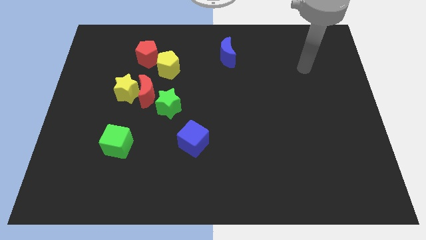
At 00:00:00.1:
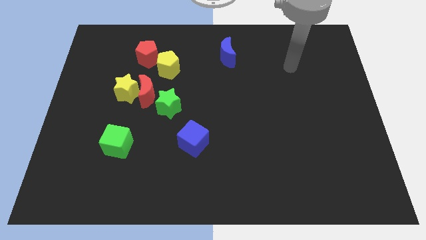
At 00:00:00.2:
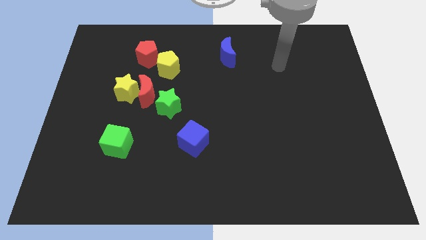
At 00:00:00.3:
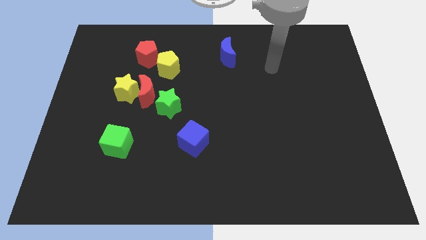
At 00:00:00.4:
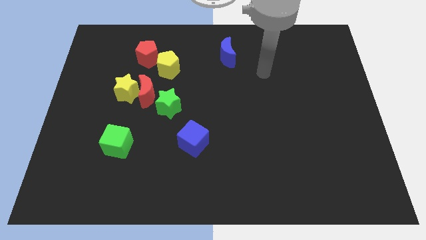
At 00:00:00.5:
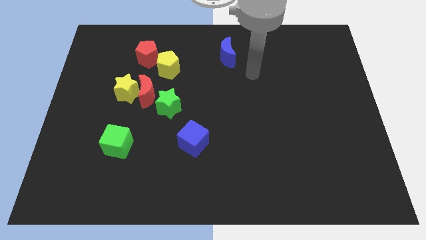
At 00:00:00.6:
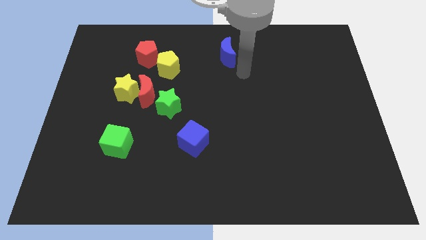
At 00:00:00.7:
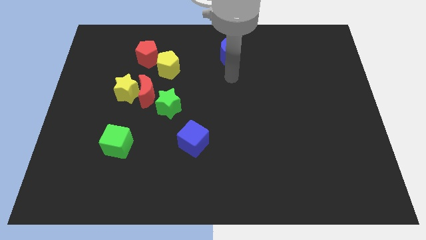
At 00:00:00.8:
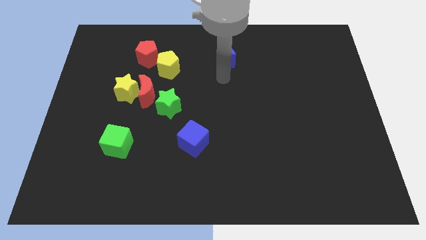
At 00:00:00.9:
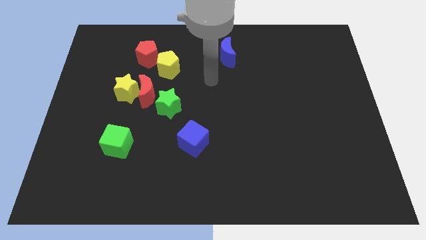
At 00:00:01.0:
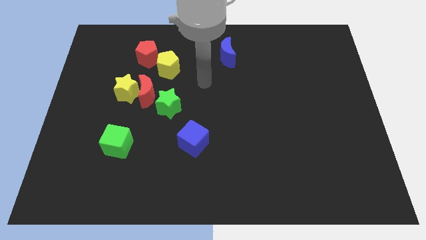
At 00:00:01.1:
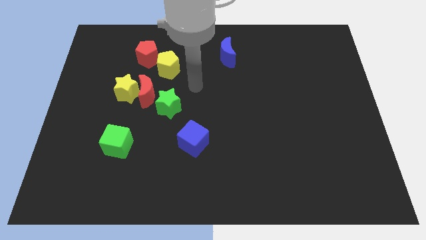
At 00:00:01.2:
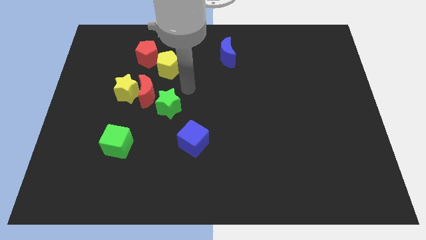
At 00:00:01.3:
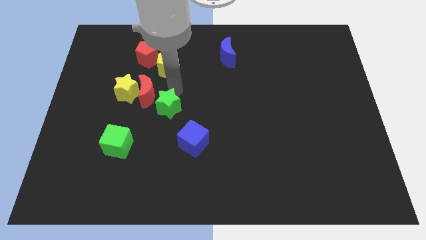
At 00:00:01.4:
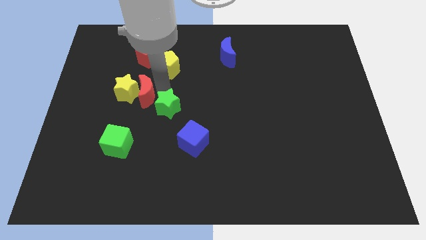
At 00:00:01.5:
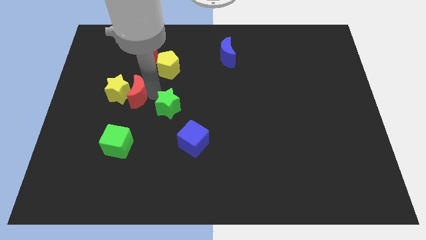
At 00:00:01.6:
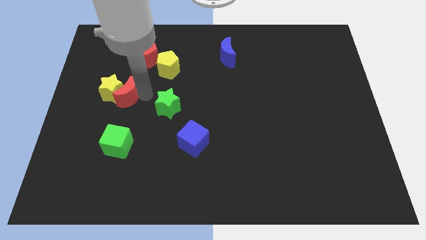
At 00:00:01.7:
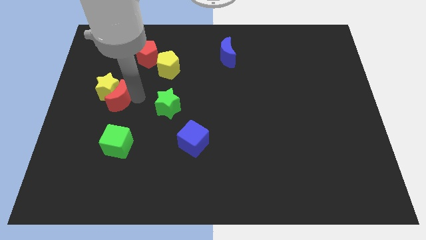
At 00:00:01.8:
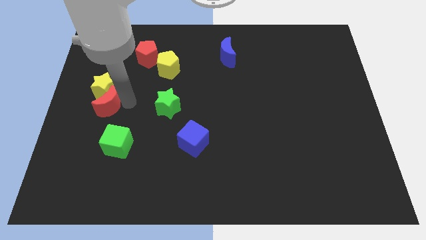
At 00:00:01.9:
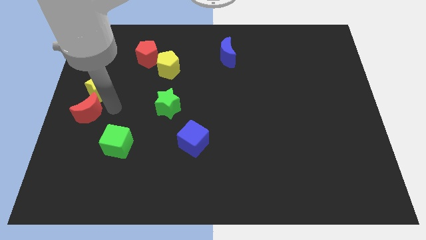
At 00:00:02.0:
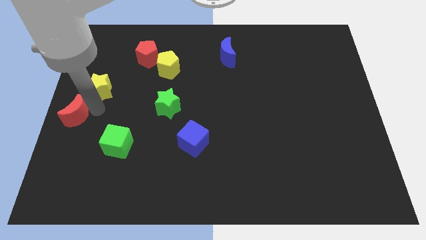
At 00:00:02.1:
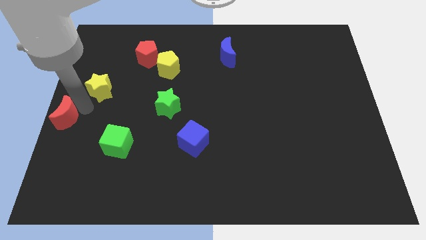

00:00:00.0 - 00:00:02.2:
separate the yellow star from the red moon

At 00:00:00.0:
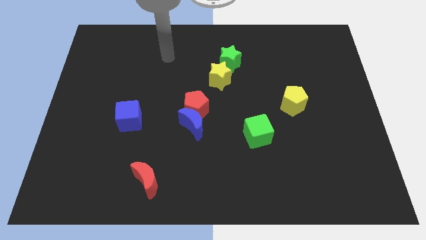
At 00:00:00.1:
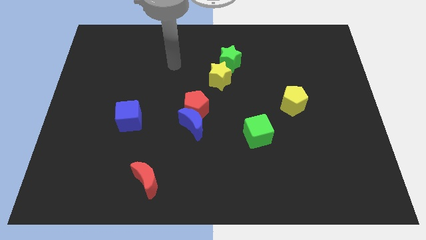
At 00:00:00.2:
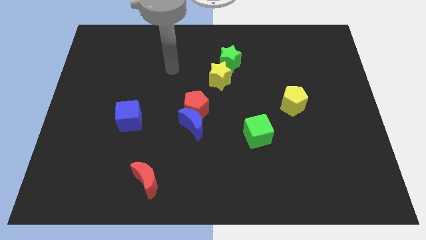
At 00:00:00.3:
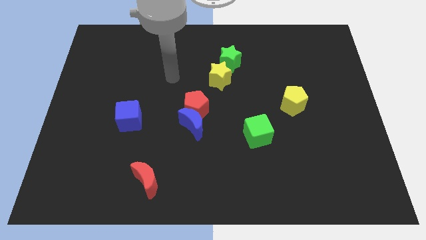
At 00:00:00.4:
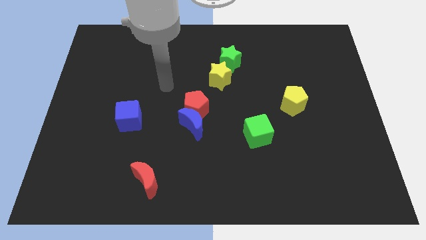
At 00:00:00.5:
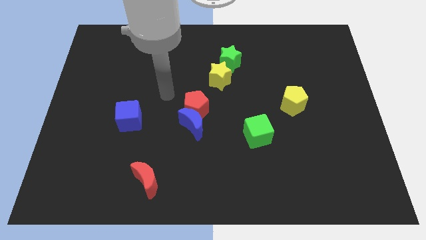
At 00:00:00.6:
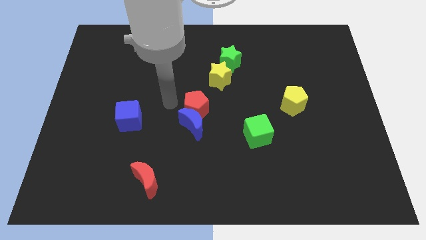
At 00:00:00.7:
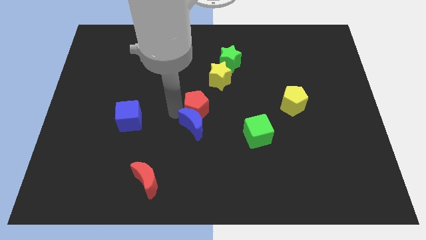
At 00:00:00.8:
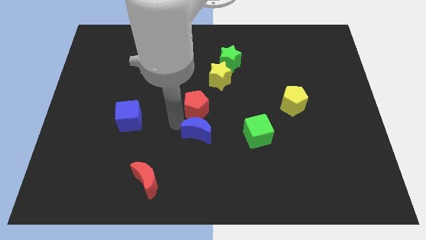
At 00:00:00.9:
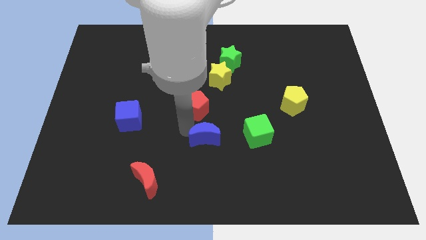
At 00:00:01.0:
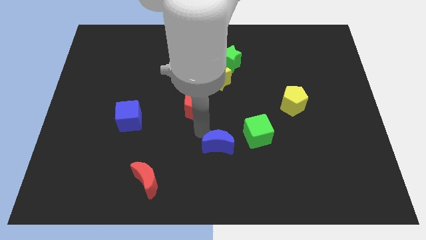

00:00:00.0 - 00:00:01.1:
move the red pentagon away from the blue moon

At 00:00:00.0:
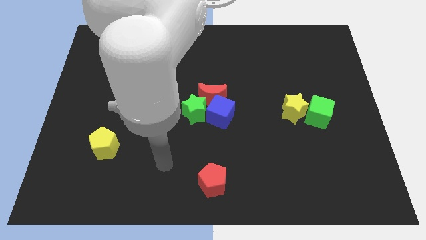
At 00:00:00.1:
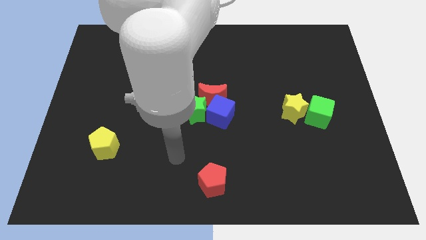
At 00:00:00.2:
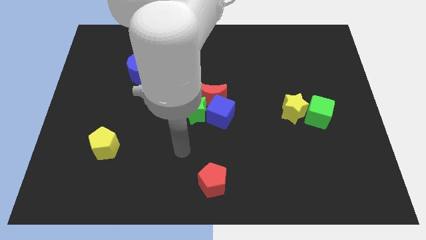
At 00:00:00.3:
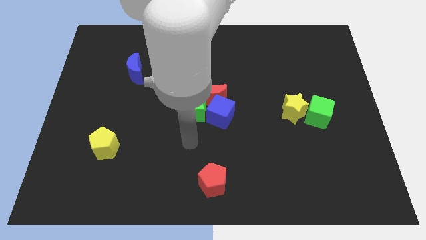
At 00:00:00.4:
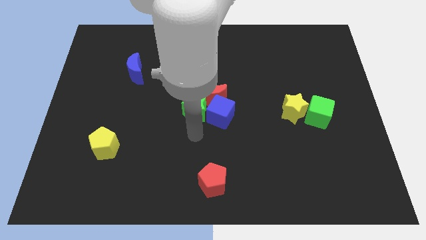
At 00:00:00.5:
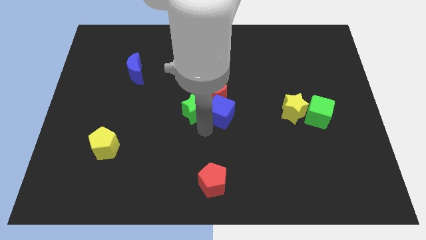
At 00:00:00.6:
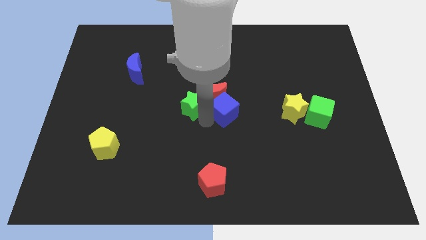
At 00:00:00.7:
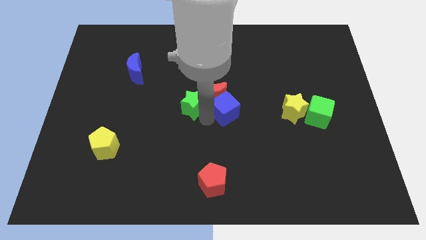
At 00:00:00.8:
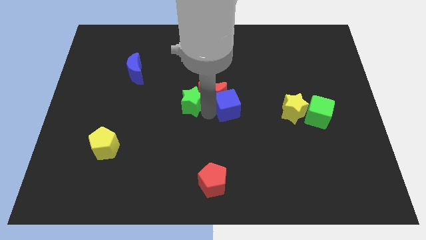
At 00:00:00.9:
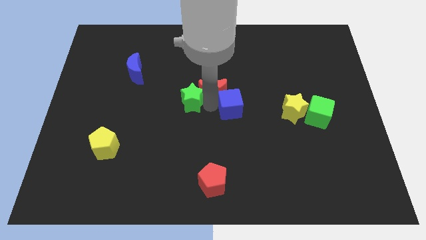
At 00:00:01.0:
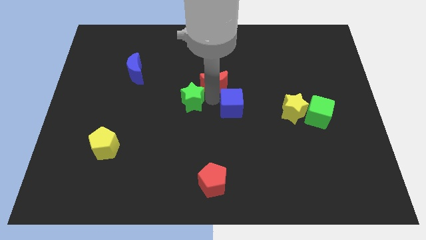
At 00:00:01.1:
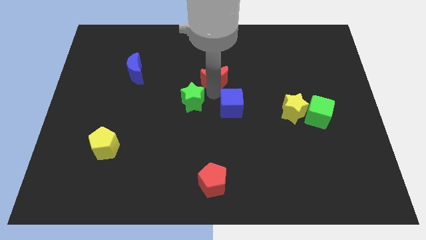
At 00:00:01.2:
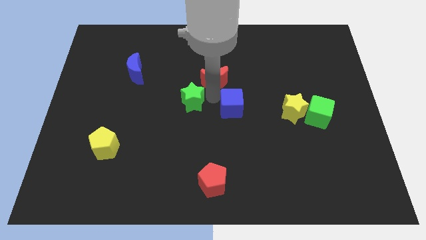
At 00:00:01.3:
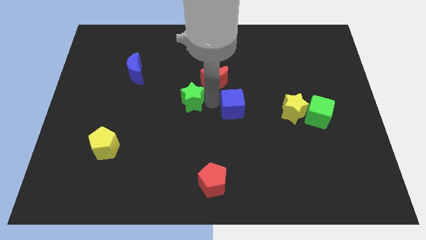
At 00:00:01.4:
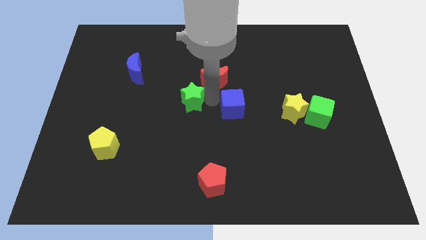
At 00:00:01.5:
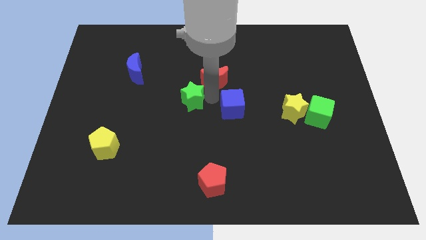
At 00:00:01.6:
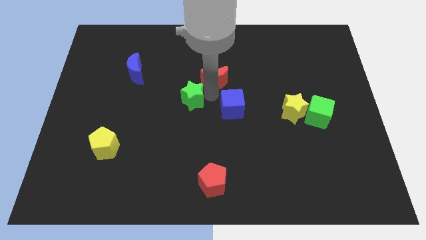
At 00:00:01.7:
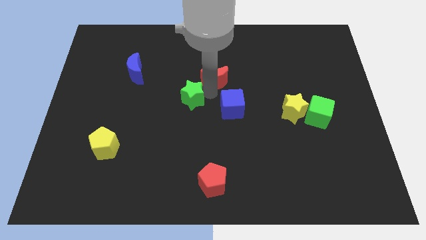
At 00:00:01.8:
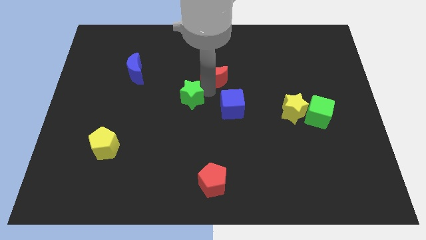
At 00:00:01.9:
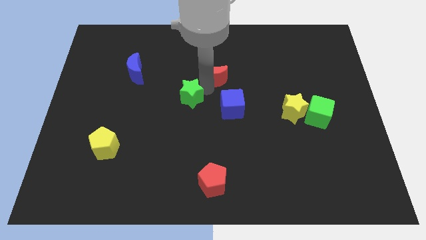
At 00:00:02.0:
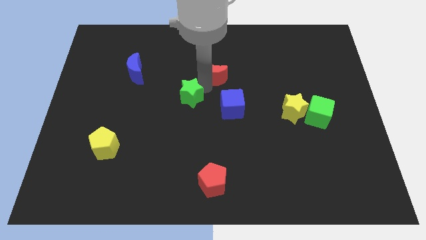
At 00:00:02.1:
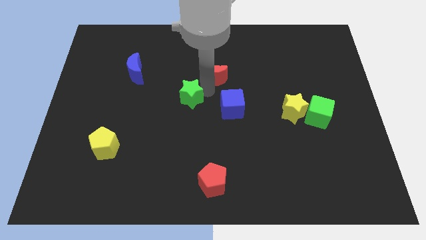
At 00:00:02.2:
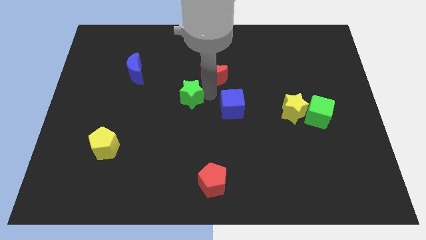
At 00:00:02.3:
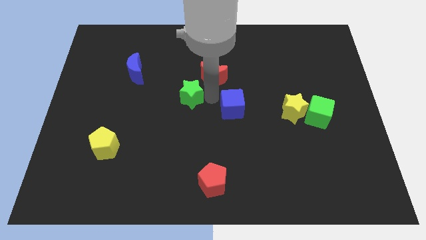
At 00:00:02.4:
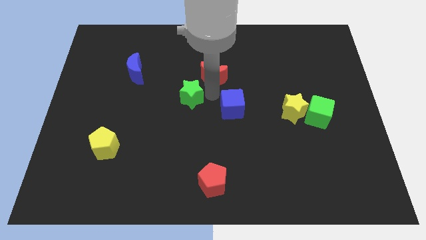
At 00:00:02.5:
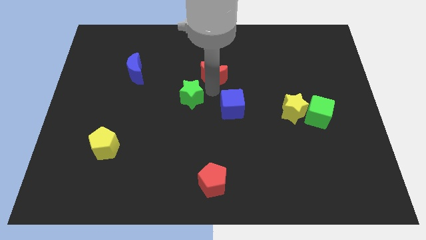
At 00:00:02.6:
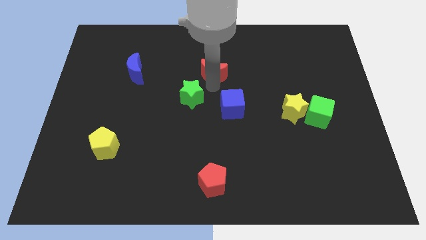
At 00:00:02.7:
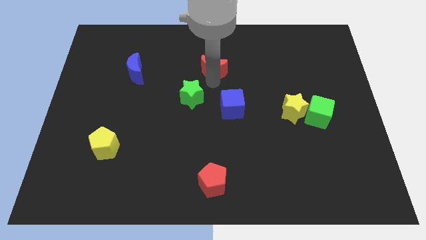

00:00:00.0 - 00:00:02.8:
pull the red moon apart from the blue cube and green star

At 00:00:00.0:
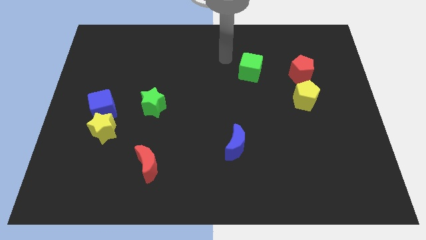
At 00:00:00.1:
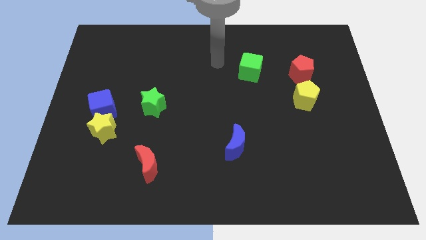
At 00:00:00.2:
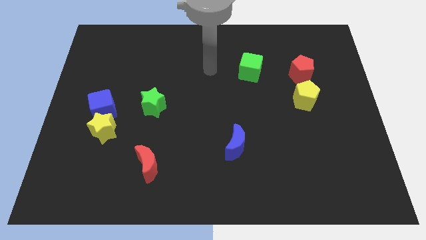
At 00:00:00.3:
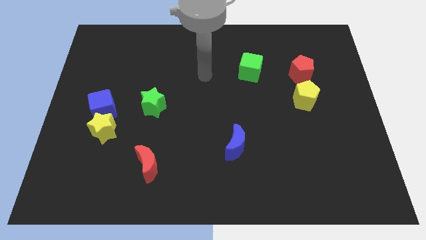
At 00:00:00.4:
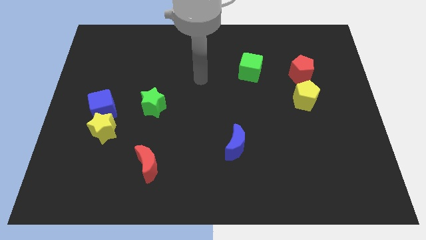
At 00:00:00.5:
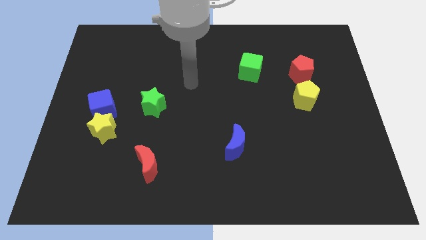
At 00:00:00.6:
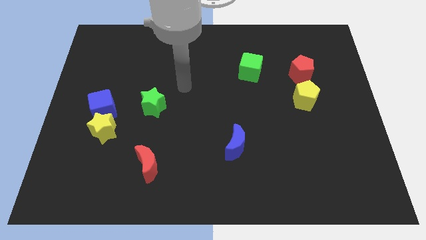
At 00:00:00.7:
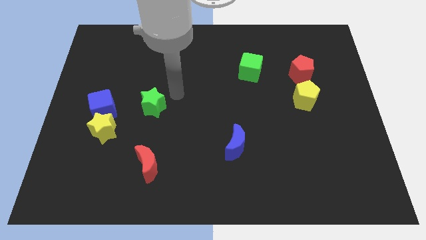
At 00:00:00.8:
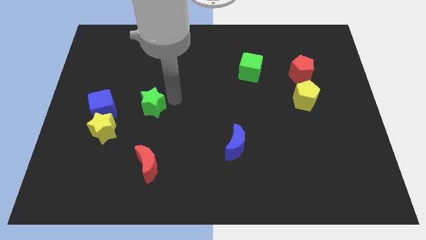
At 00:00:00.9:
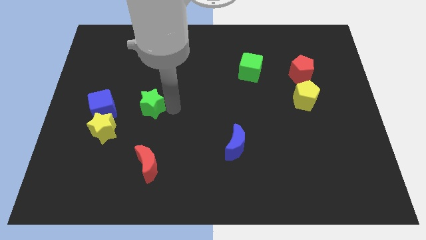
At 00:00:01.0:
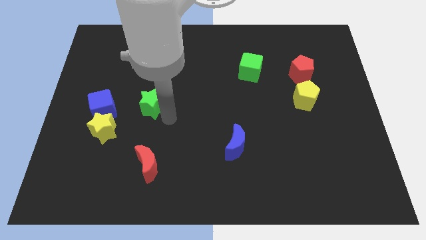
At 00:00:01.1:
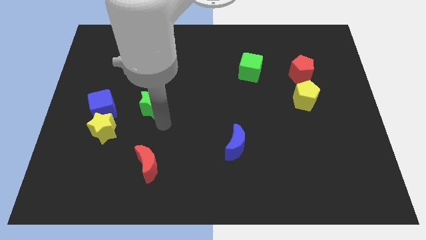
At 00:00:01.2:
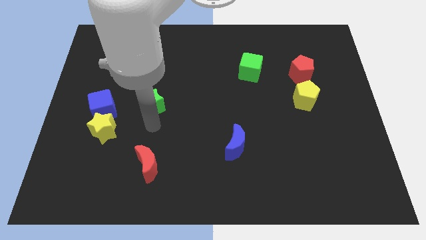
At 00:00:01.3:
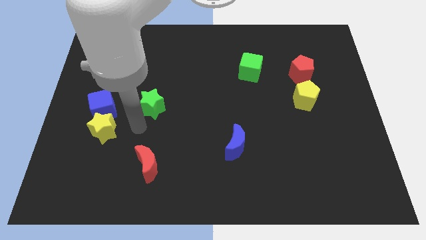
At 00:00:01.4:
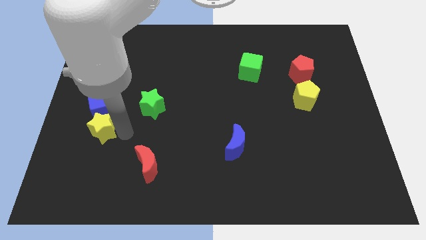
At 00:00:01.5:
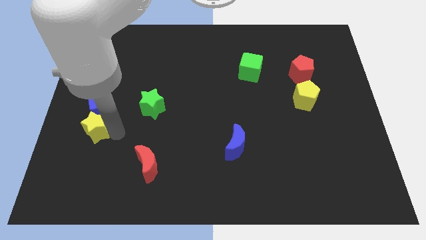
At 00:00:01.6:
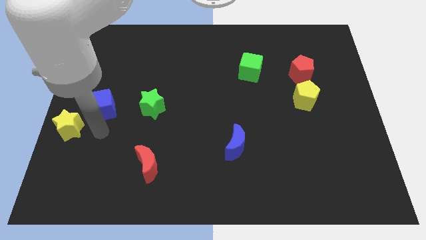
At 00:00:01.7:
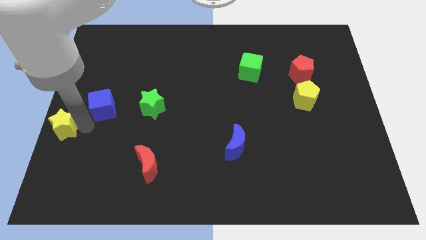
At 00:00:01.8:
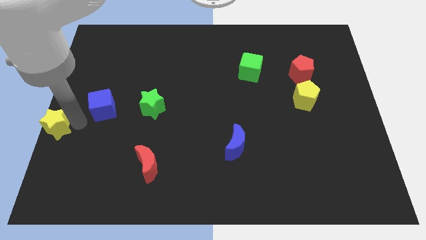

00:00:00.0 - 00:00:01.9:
pull the blue cube apart from the yellow star

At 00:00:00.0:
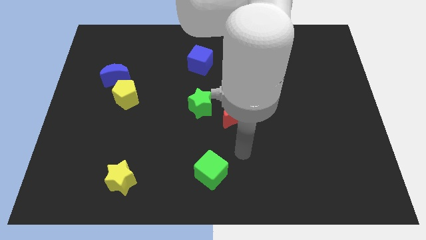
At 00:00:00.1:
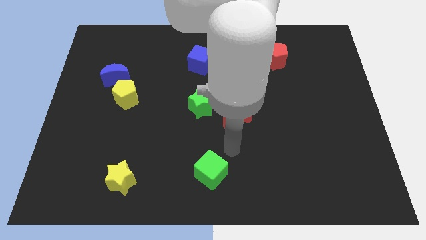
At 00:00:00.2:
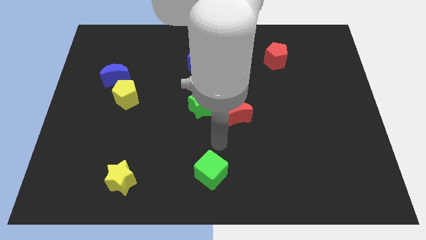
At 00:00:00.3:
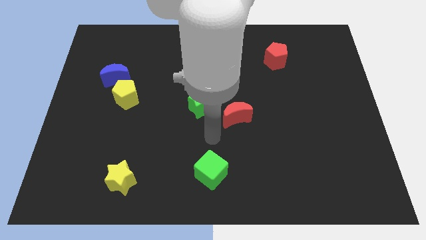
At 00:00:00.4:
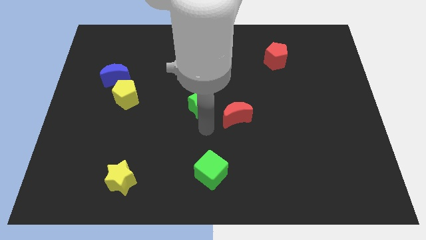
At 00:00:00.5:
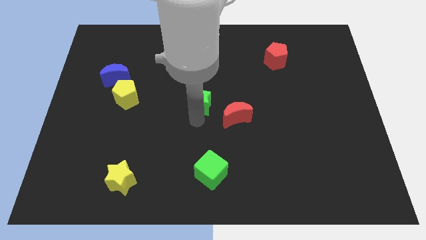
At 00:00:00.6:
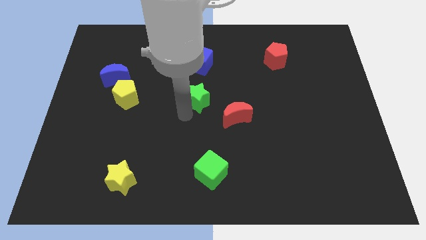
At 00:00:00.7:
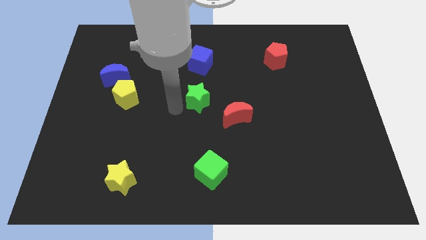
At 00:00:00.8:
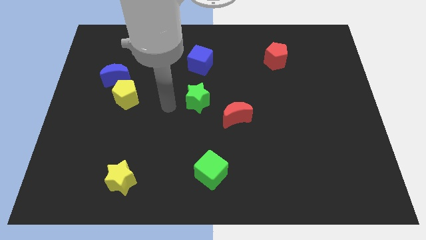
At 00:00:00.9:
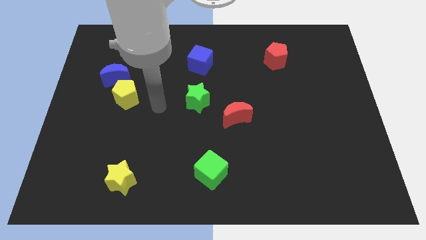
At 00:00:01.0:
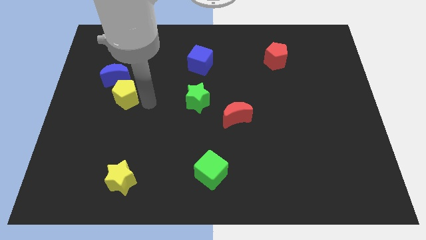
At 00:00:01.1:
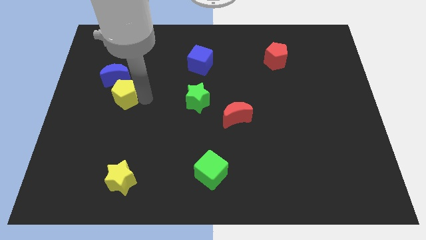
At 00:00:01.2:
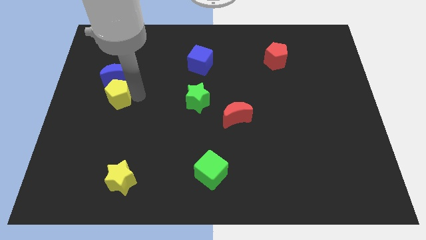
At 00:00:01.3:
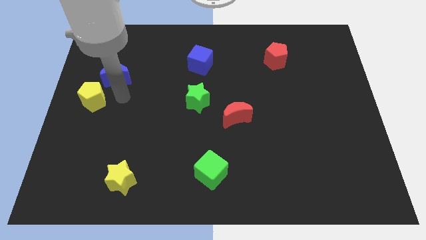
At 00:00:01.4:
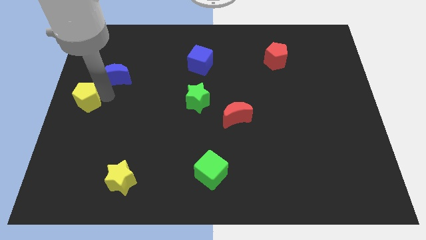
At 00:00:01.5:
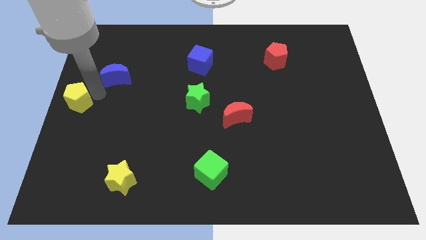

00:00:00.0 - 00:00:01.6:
move the blue moon away from the yellow pentagon
